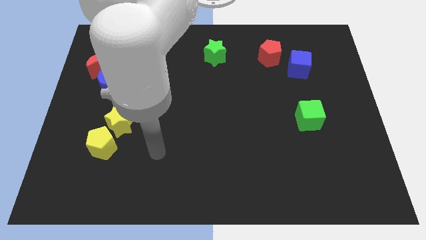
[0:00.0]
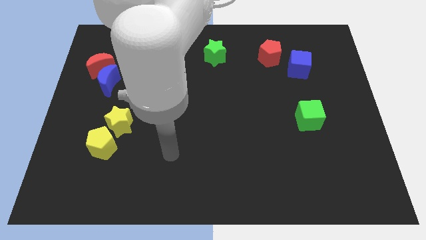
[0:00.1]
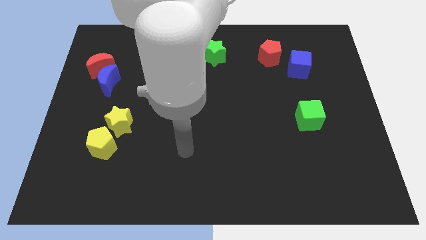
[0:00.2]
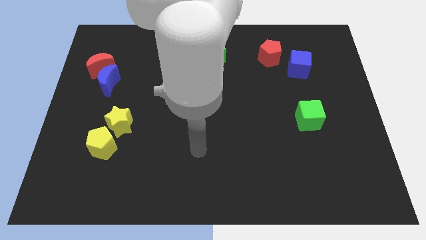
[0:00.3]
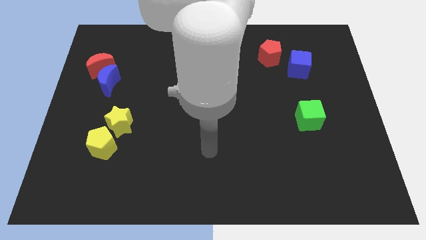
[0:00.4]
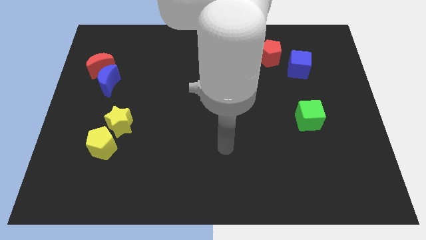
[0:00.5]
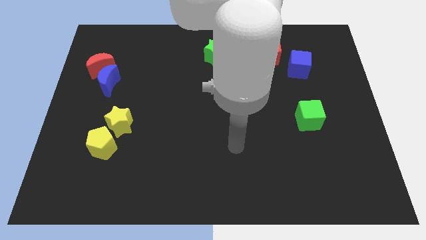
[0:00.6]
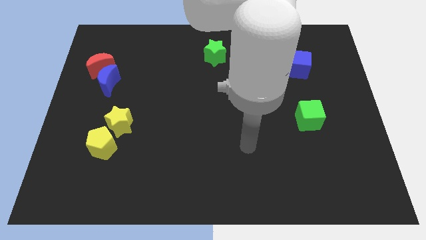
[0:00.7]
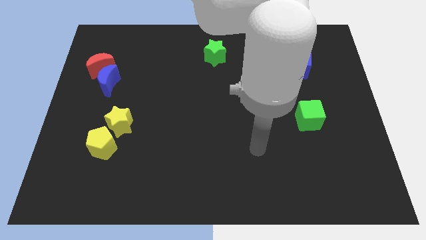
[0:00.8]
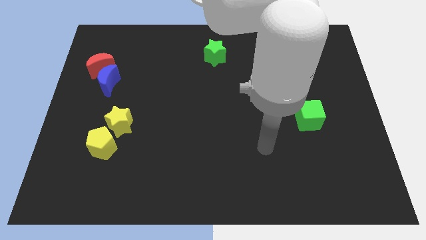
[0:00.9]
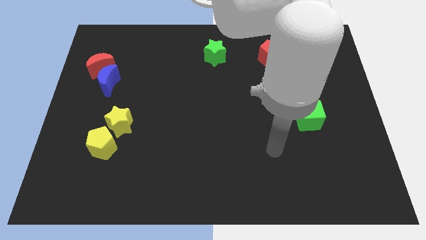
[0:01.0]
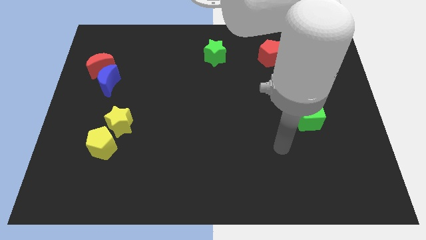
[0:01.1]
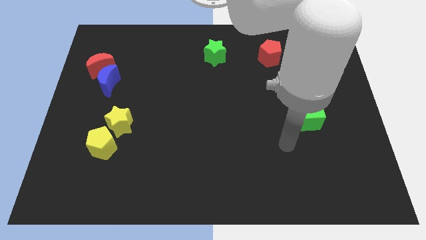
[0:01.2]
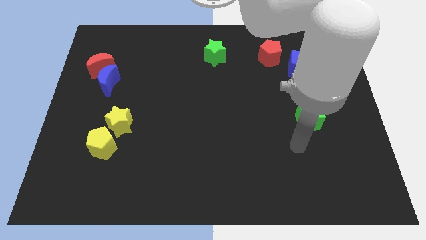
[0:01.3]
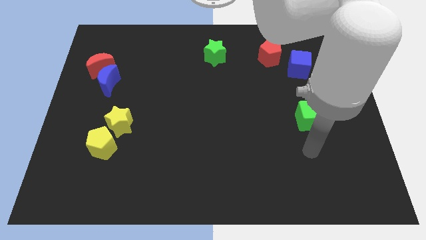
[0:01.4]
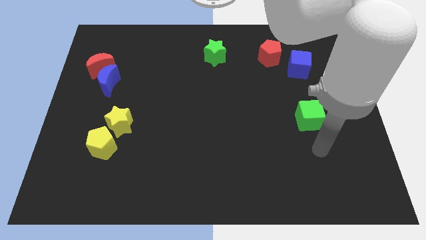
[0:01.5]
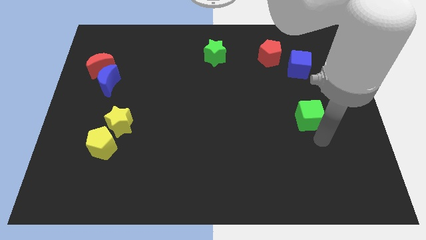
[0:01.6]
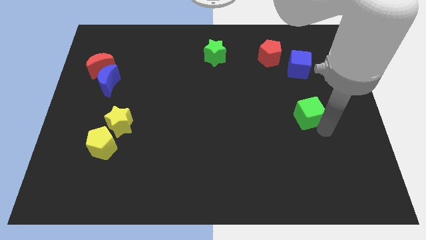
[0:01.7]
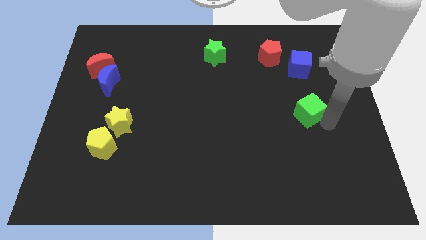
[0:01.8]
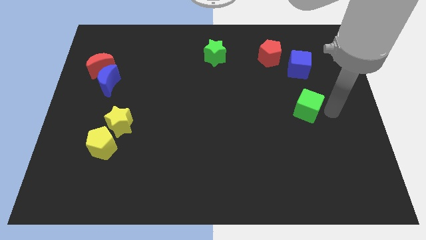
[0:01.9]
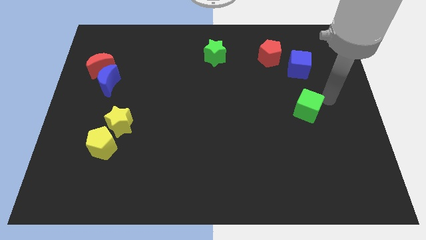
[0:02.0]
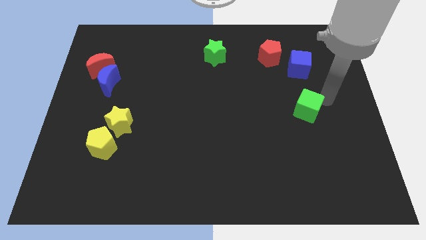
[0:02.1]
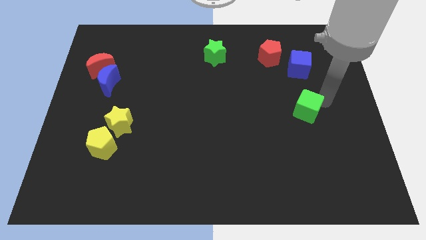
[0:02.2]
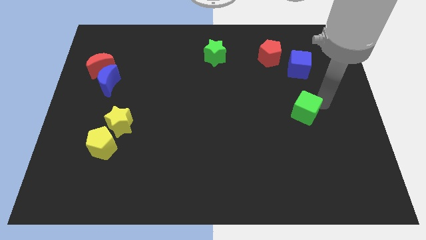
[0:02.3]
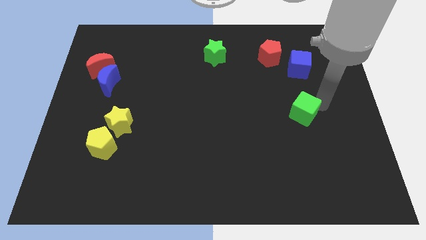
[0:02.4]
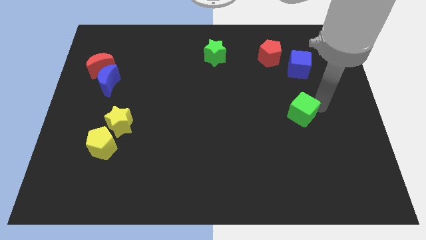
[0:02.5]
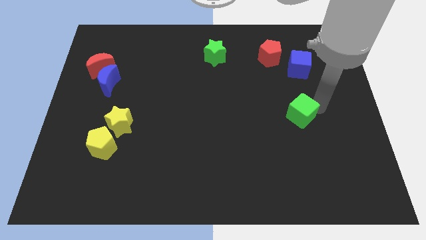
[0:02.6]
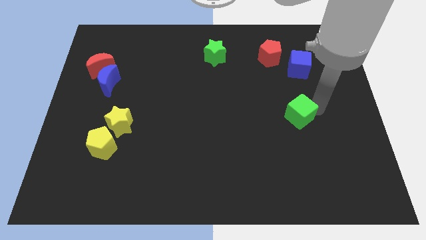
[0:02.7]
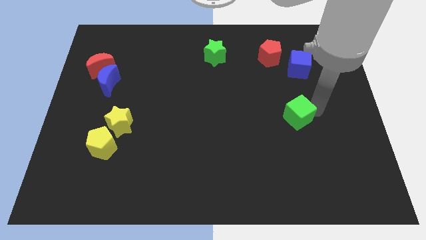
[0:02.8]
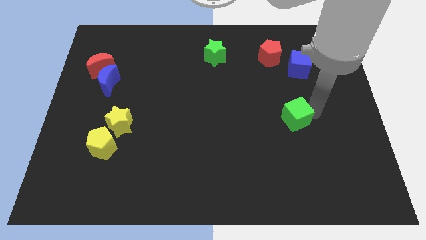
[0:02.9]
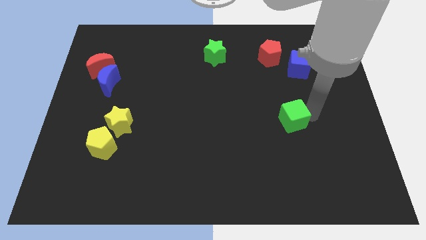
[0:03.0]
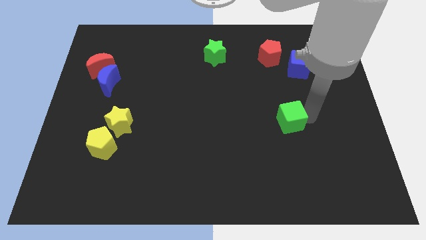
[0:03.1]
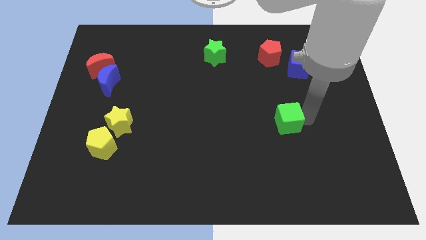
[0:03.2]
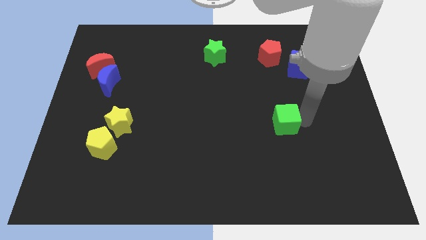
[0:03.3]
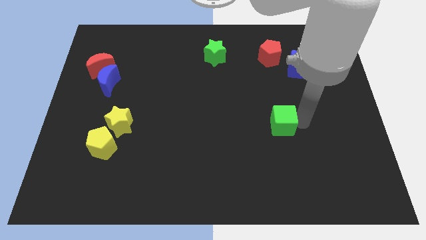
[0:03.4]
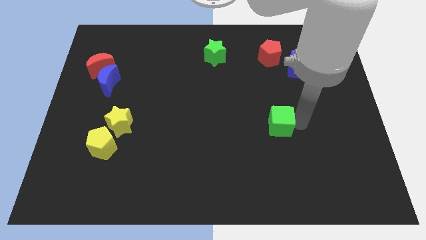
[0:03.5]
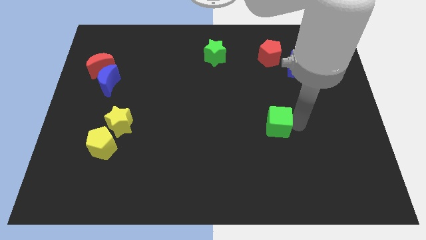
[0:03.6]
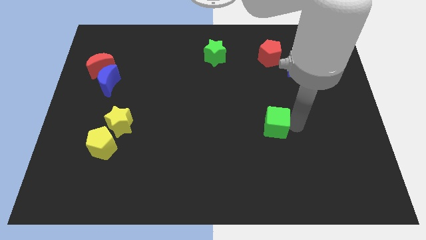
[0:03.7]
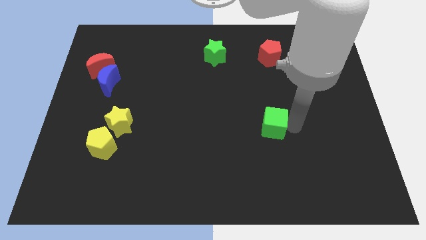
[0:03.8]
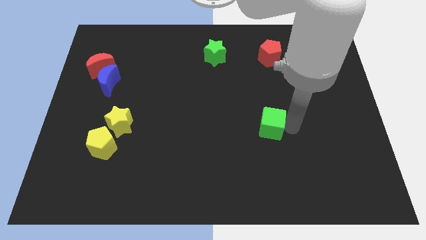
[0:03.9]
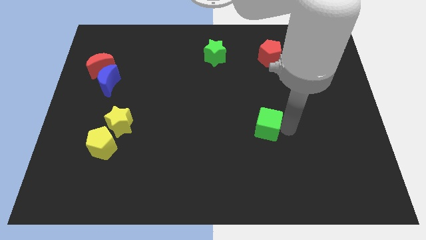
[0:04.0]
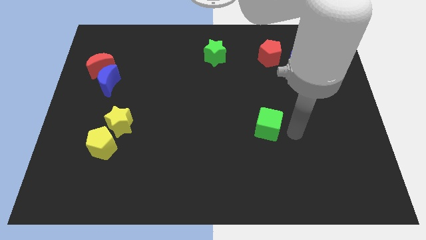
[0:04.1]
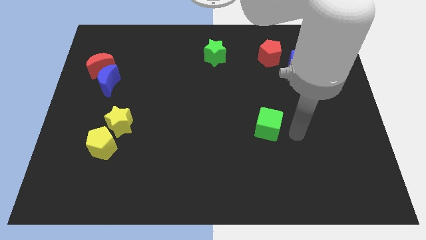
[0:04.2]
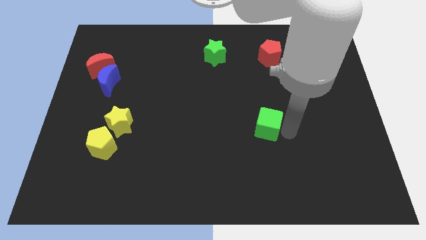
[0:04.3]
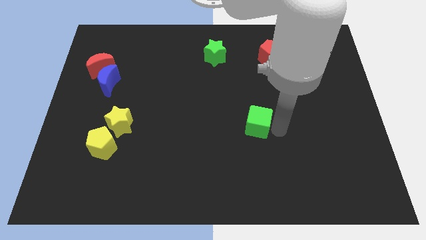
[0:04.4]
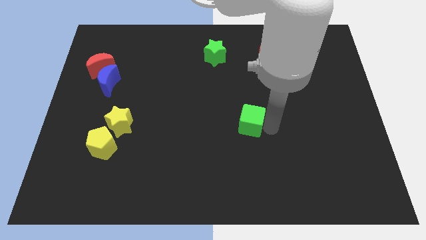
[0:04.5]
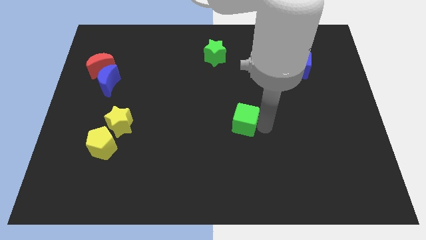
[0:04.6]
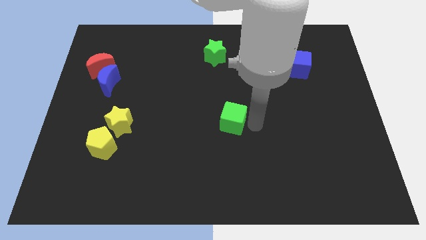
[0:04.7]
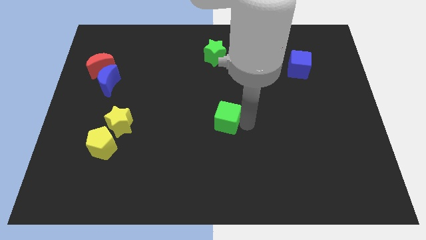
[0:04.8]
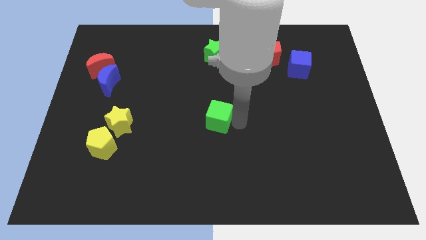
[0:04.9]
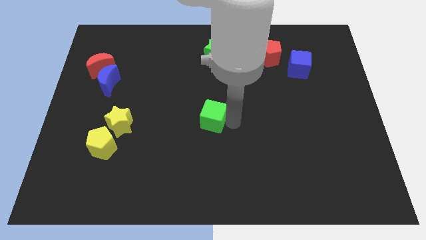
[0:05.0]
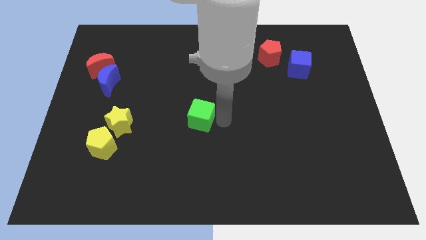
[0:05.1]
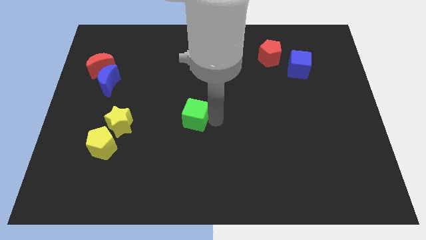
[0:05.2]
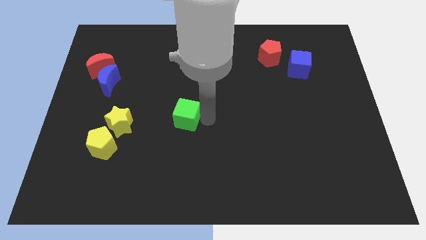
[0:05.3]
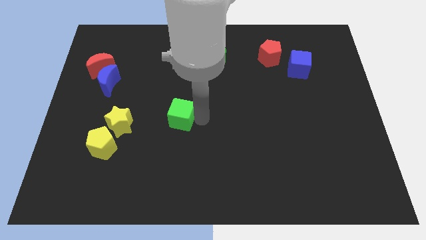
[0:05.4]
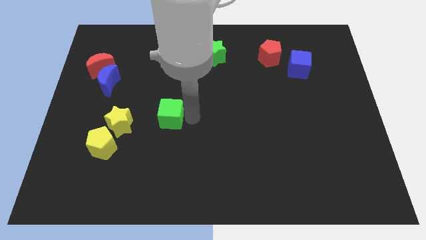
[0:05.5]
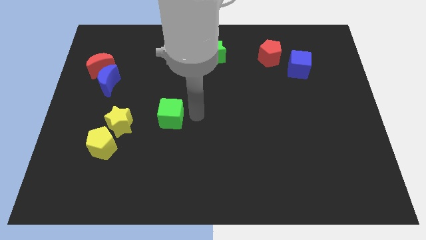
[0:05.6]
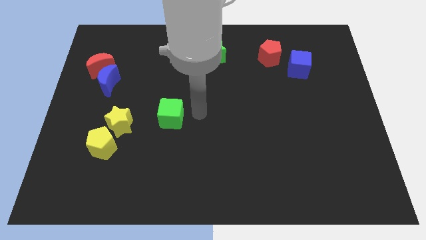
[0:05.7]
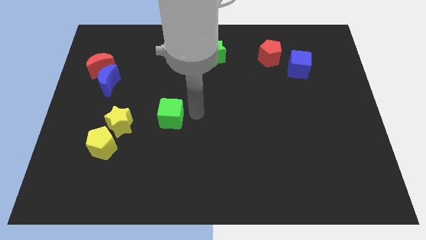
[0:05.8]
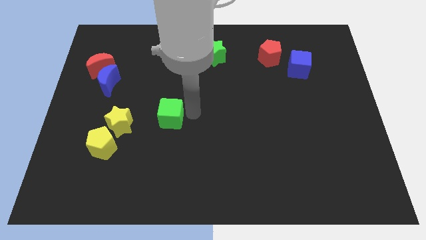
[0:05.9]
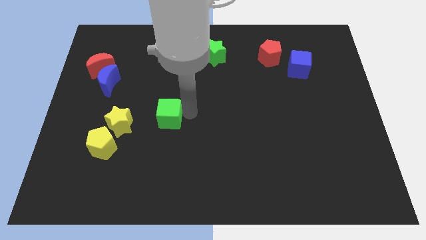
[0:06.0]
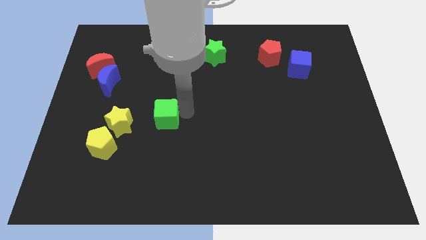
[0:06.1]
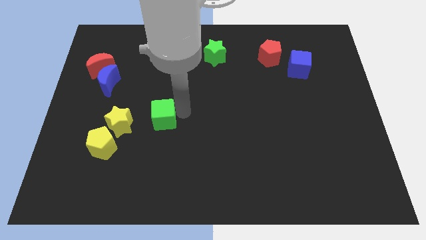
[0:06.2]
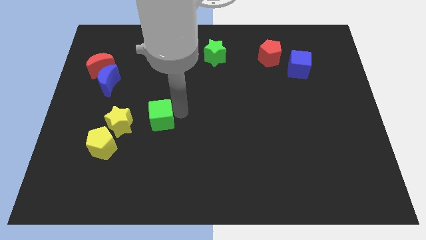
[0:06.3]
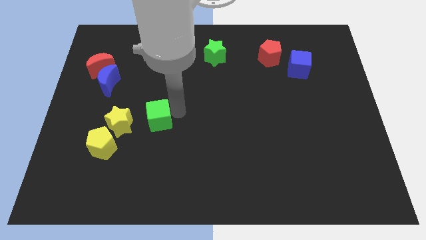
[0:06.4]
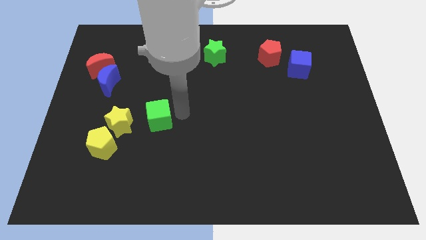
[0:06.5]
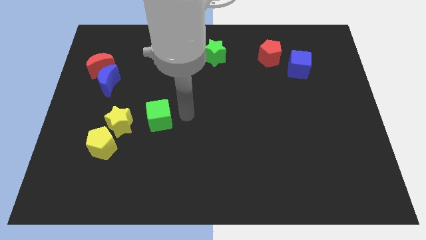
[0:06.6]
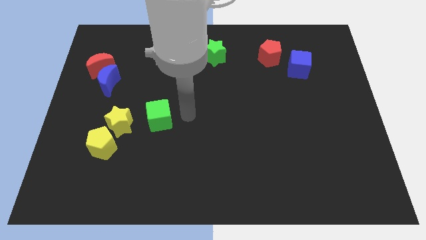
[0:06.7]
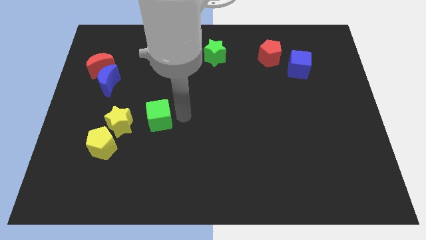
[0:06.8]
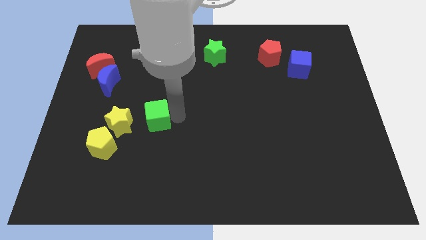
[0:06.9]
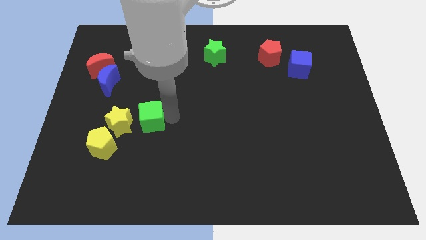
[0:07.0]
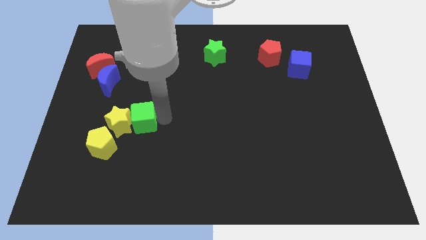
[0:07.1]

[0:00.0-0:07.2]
push the green cube to the yellow star

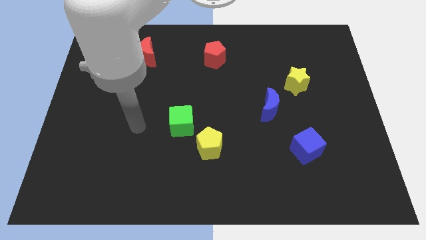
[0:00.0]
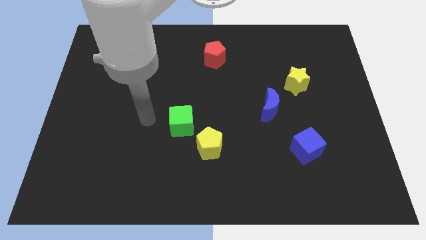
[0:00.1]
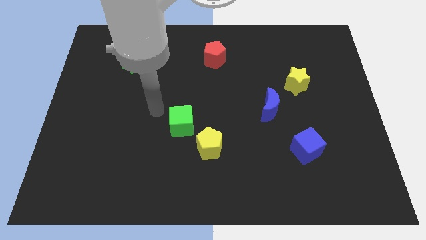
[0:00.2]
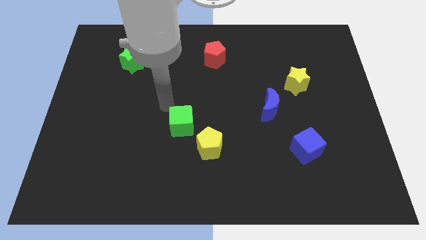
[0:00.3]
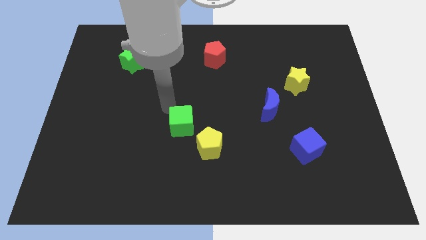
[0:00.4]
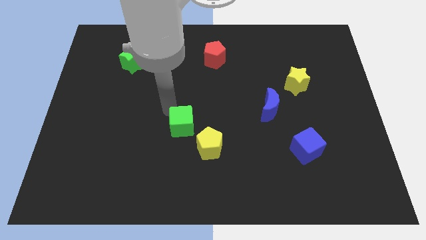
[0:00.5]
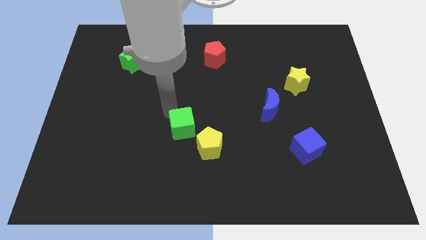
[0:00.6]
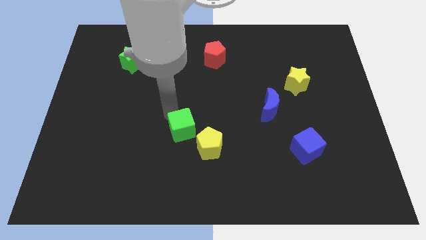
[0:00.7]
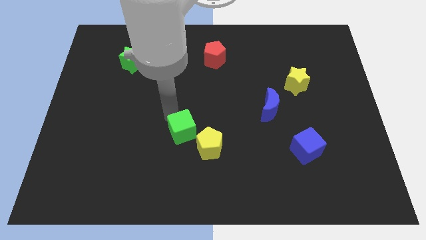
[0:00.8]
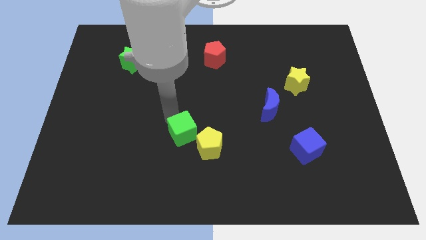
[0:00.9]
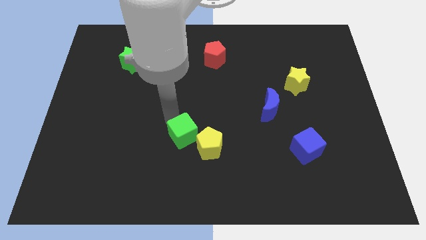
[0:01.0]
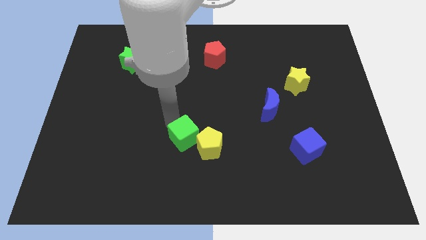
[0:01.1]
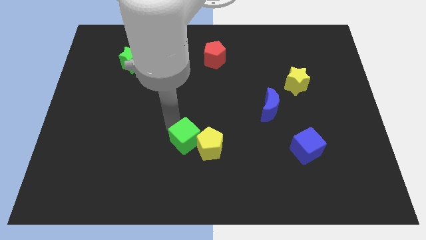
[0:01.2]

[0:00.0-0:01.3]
slide the green cube next to the yellow pentagon
